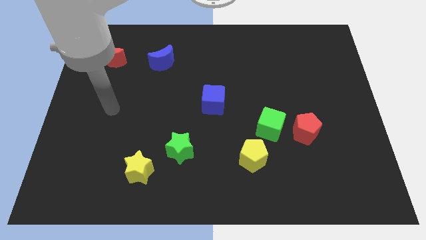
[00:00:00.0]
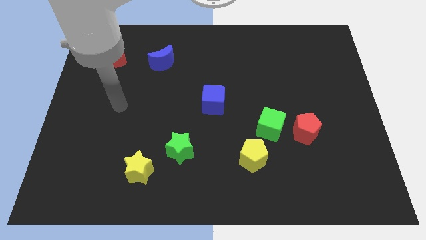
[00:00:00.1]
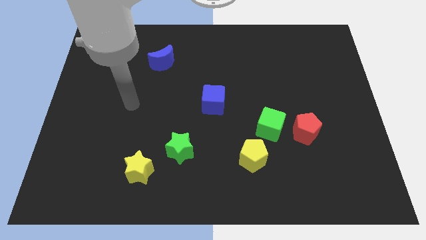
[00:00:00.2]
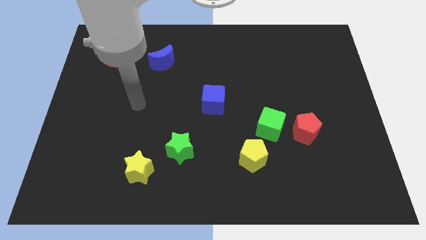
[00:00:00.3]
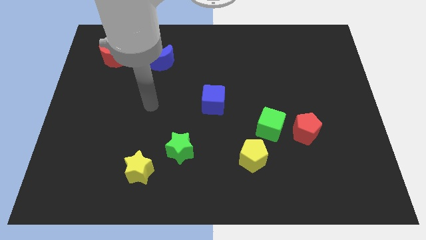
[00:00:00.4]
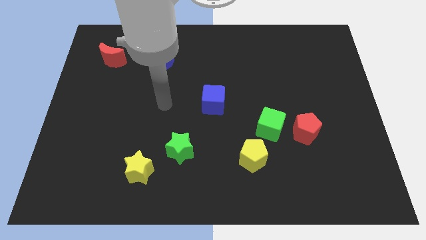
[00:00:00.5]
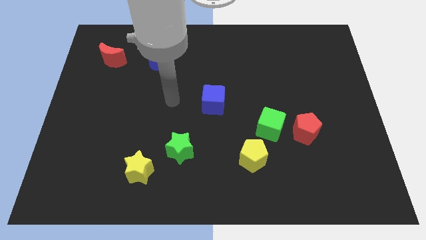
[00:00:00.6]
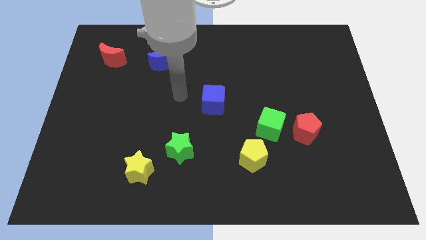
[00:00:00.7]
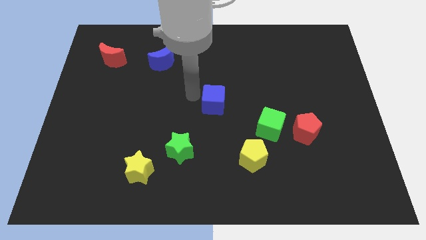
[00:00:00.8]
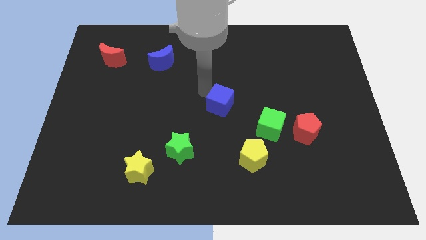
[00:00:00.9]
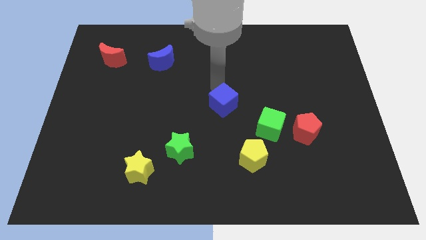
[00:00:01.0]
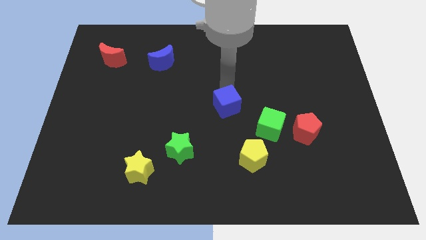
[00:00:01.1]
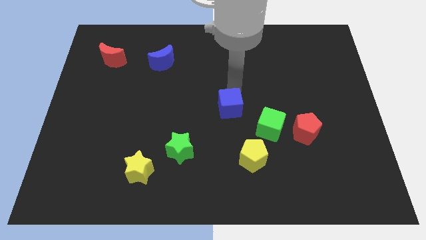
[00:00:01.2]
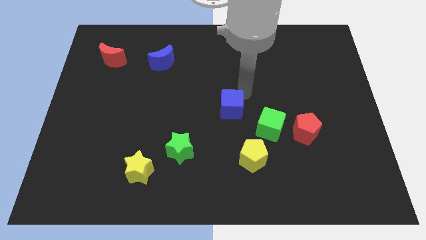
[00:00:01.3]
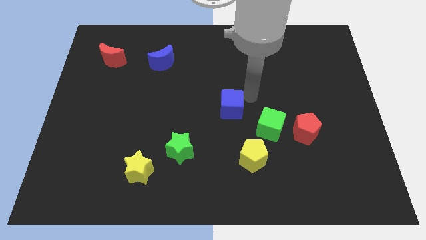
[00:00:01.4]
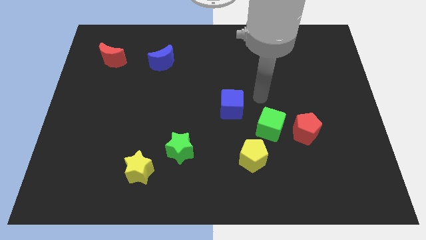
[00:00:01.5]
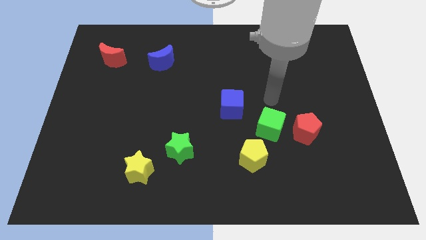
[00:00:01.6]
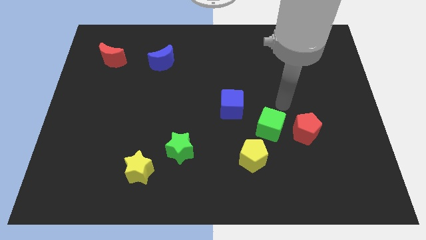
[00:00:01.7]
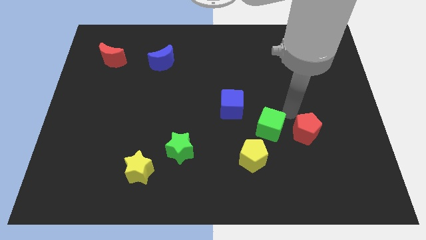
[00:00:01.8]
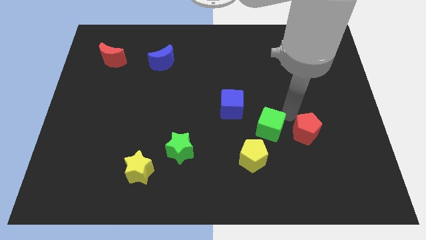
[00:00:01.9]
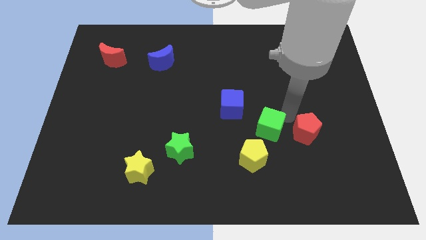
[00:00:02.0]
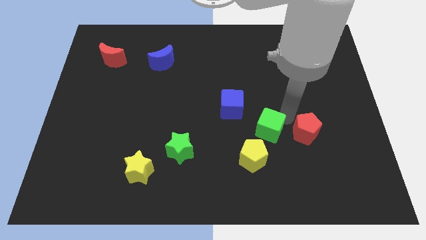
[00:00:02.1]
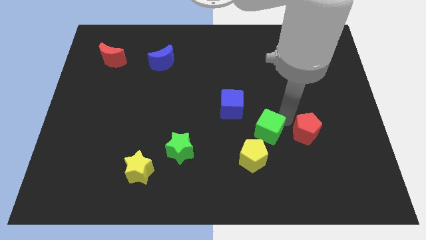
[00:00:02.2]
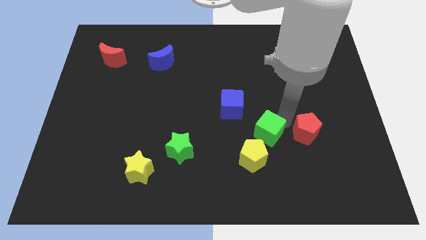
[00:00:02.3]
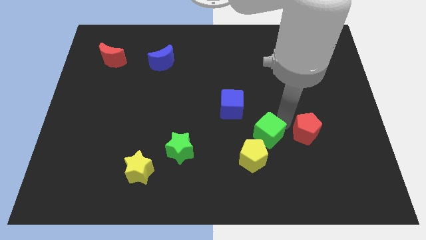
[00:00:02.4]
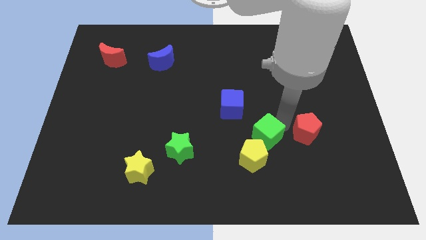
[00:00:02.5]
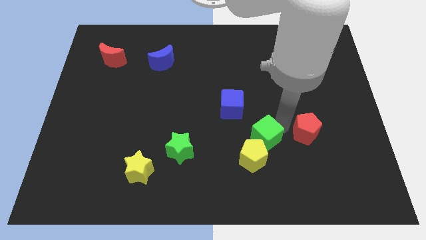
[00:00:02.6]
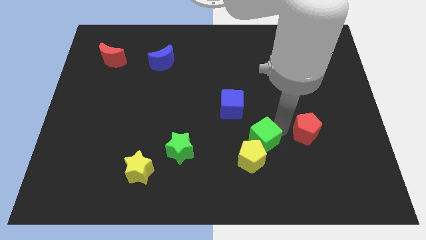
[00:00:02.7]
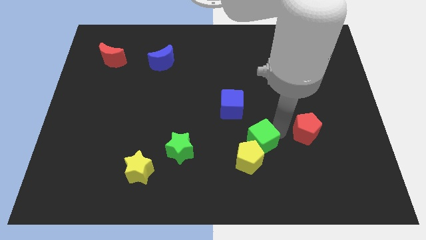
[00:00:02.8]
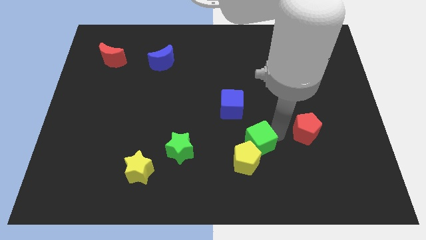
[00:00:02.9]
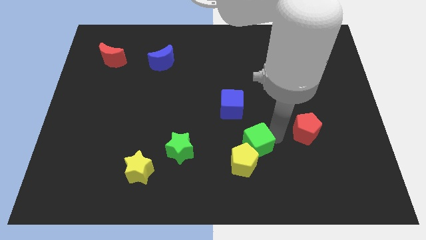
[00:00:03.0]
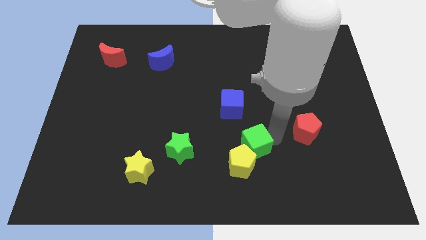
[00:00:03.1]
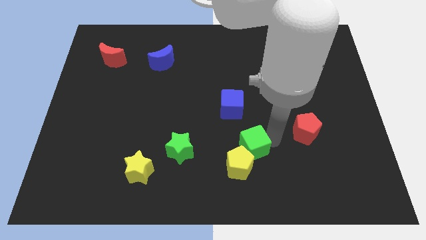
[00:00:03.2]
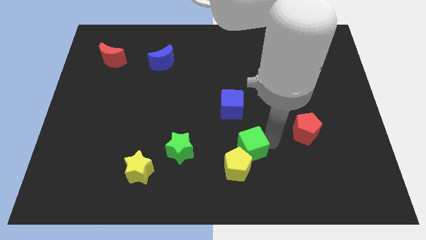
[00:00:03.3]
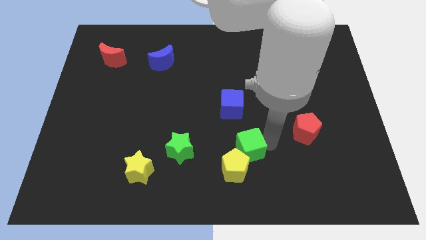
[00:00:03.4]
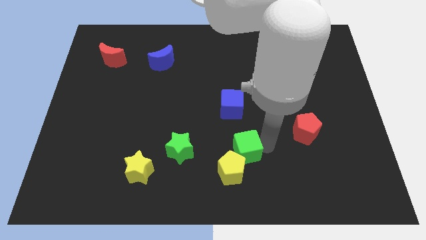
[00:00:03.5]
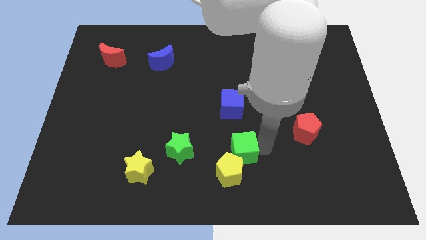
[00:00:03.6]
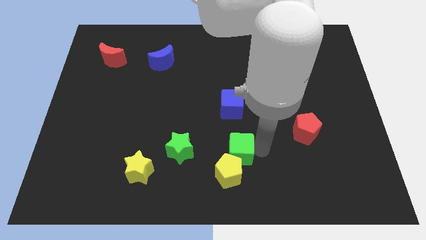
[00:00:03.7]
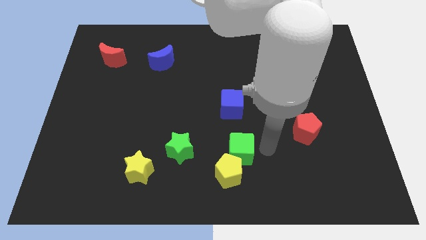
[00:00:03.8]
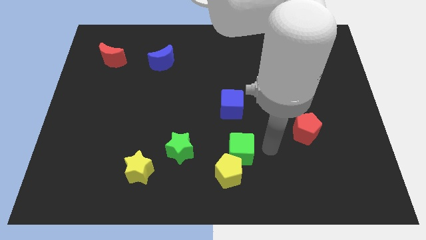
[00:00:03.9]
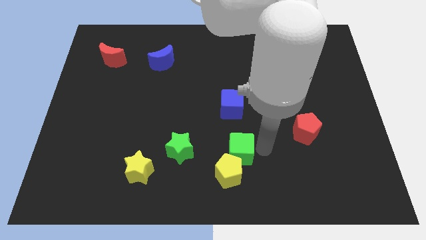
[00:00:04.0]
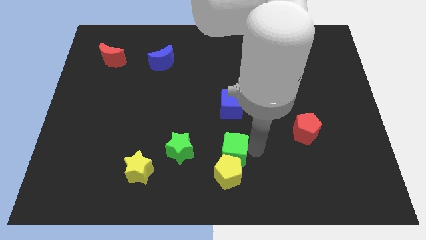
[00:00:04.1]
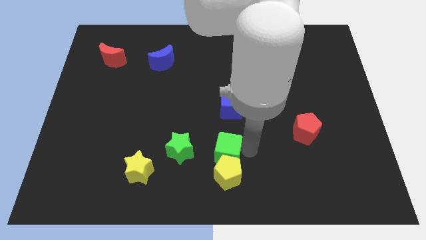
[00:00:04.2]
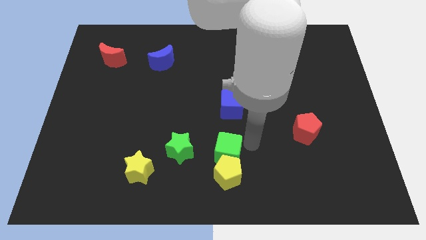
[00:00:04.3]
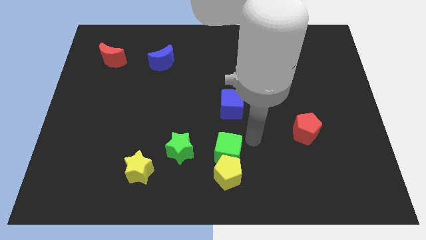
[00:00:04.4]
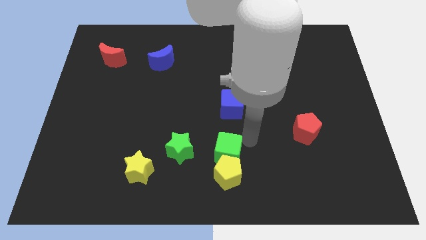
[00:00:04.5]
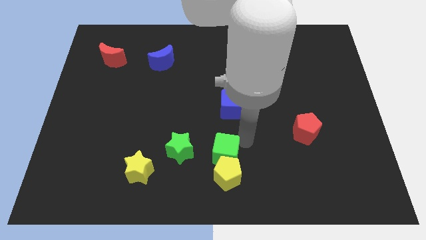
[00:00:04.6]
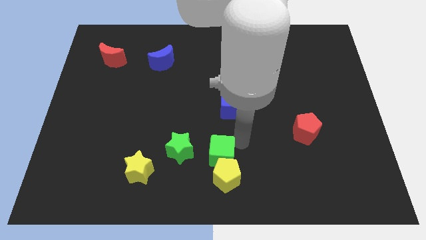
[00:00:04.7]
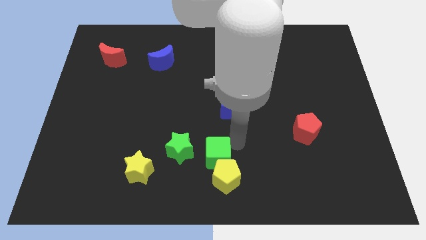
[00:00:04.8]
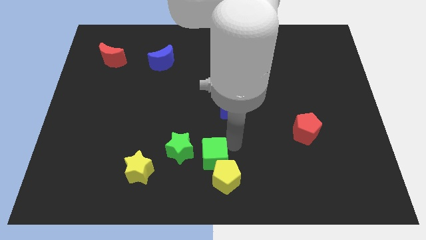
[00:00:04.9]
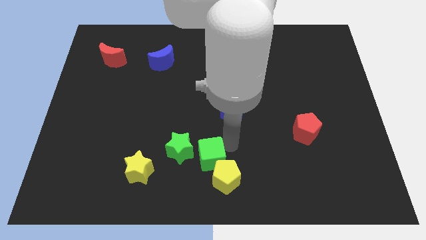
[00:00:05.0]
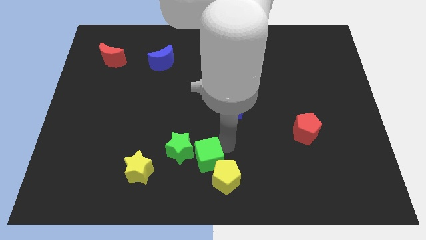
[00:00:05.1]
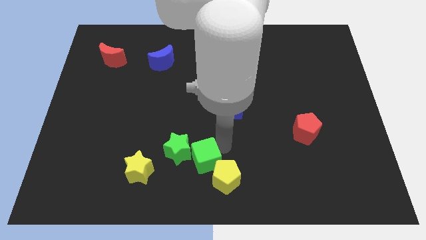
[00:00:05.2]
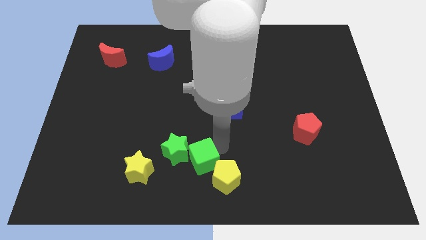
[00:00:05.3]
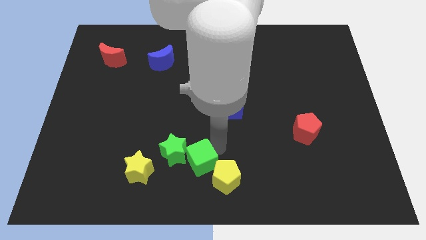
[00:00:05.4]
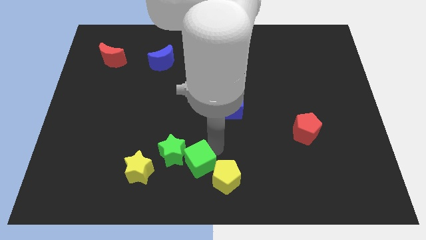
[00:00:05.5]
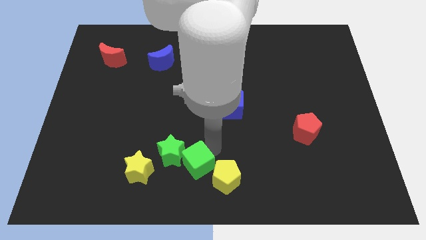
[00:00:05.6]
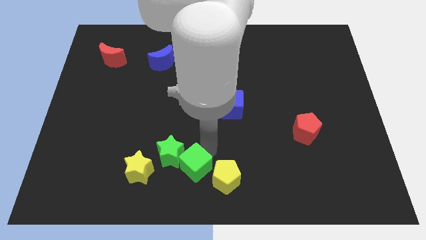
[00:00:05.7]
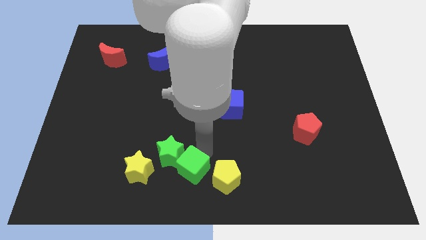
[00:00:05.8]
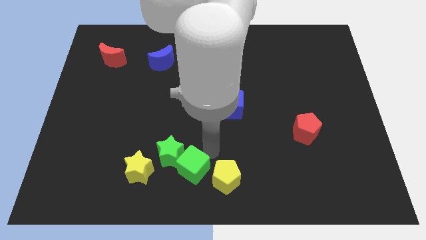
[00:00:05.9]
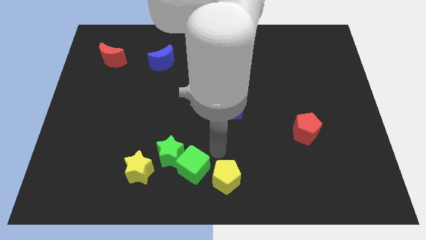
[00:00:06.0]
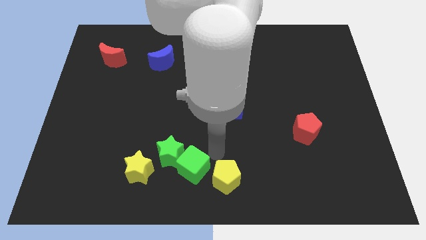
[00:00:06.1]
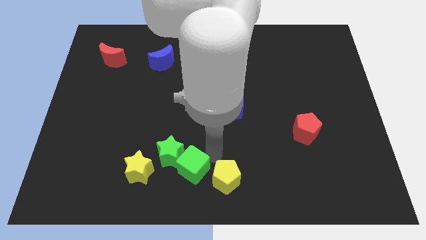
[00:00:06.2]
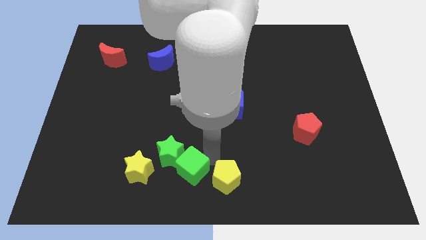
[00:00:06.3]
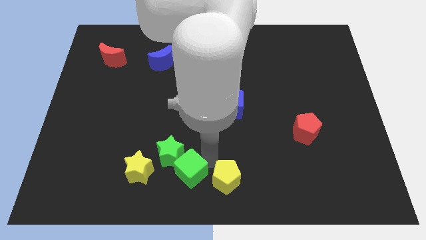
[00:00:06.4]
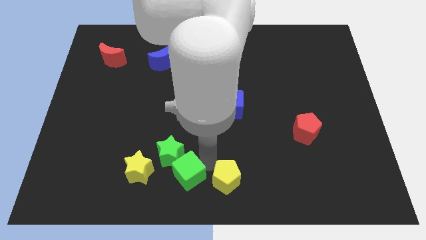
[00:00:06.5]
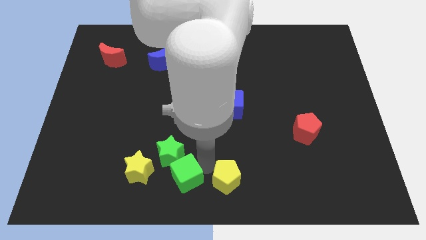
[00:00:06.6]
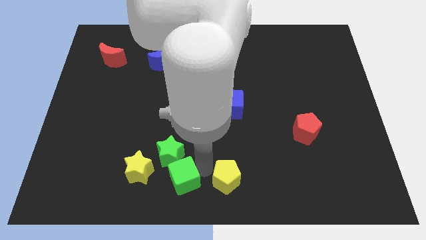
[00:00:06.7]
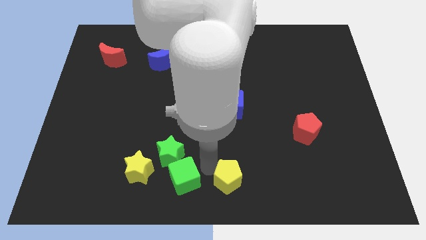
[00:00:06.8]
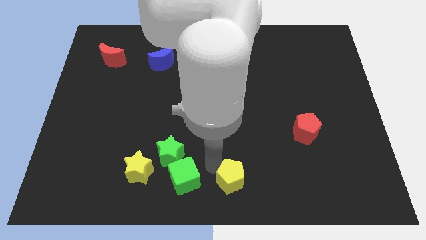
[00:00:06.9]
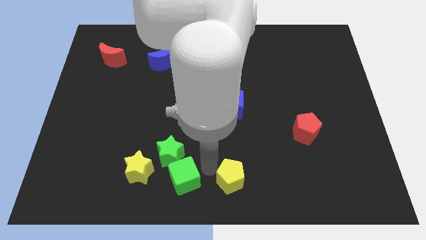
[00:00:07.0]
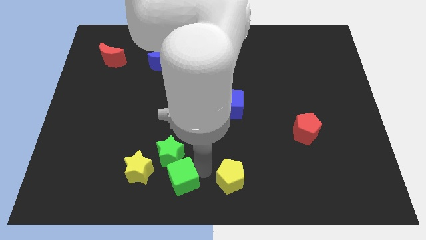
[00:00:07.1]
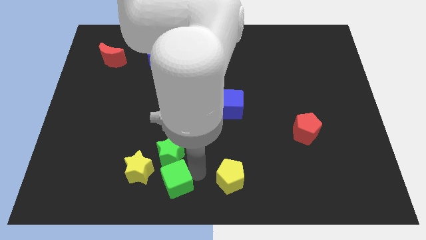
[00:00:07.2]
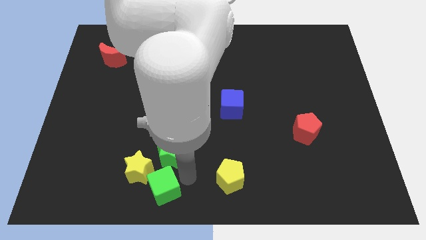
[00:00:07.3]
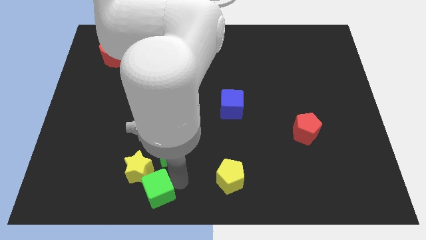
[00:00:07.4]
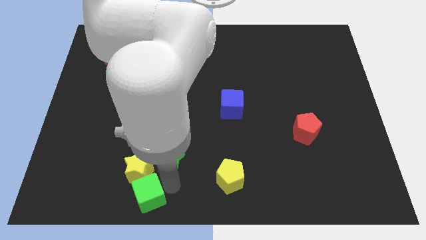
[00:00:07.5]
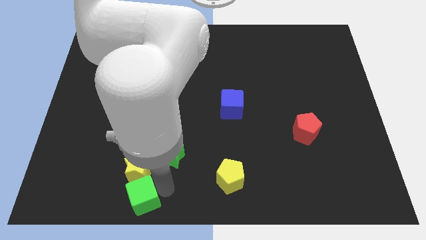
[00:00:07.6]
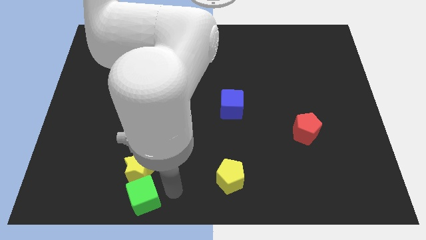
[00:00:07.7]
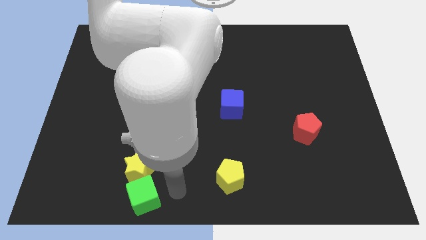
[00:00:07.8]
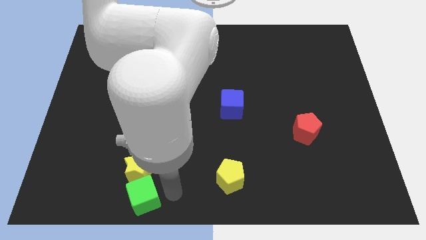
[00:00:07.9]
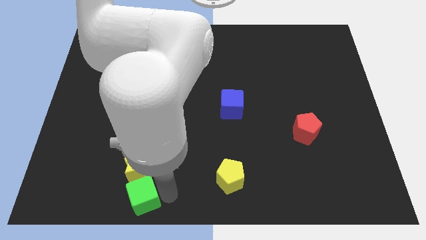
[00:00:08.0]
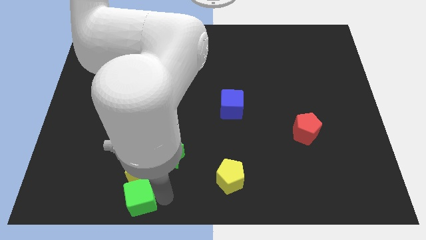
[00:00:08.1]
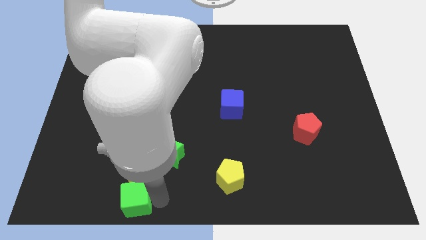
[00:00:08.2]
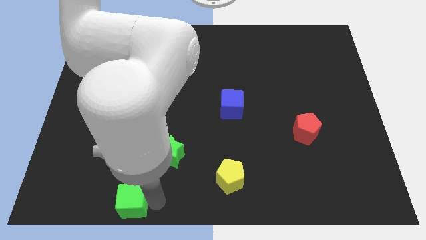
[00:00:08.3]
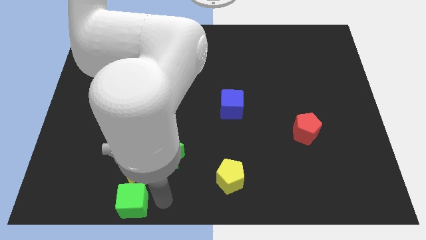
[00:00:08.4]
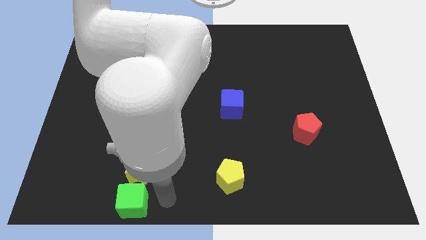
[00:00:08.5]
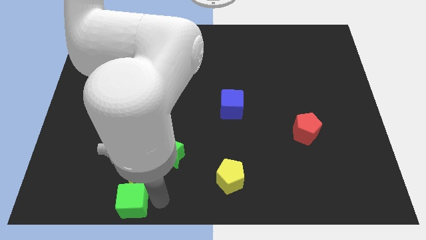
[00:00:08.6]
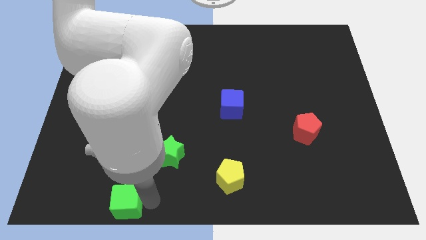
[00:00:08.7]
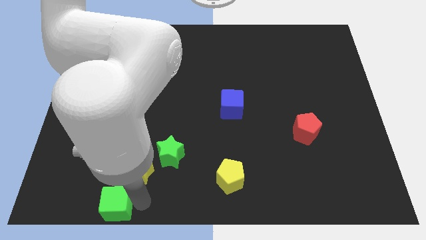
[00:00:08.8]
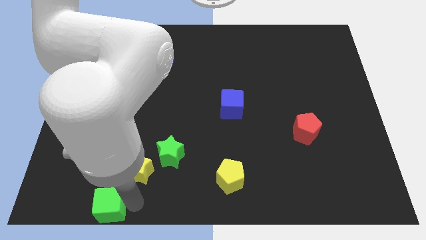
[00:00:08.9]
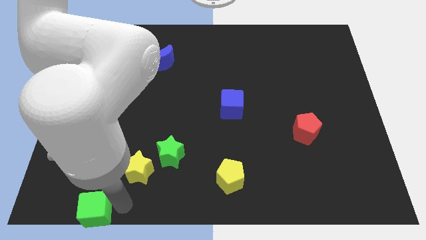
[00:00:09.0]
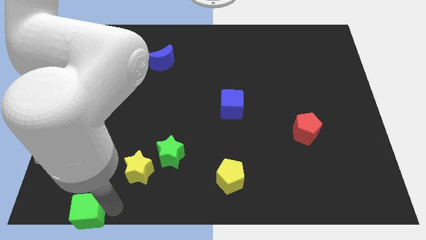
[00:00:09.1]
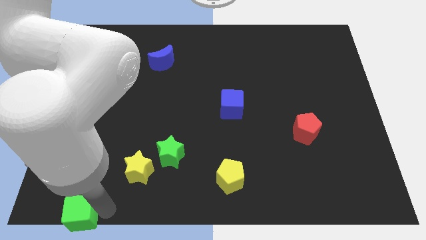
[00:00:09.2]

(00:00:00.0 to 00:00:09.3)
put the green cube to the bottom left of the board
